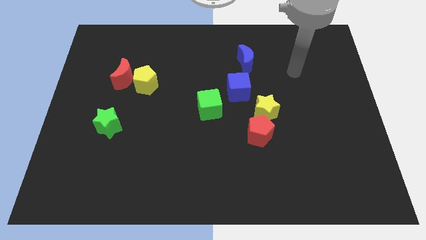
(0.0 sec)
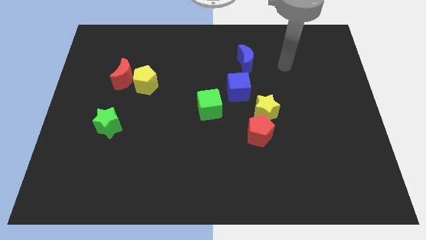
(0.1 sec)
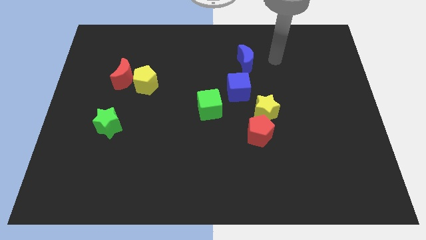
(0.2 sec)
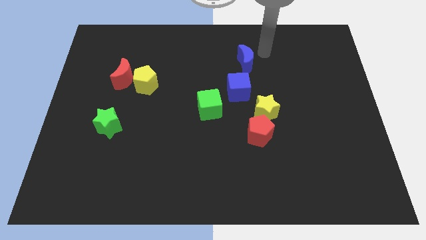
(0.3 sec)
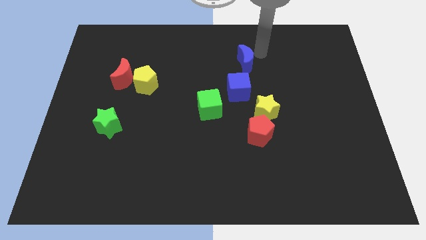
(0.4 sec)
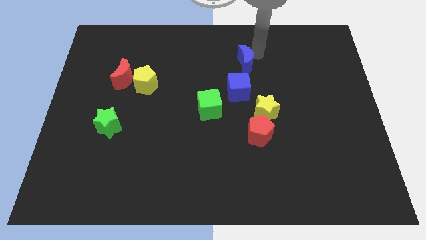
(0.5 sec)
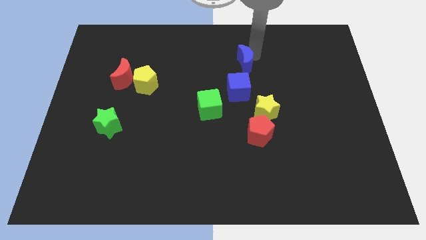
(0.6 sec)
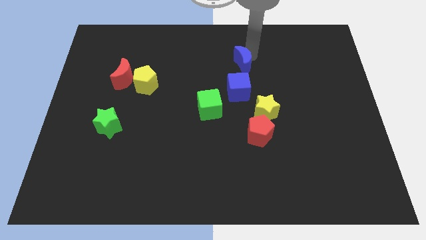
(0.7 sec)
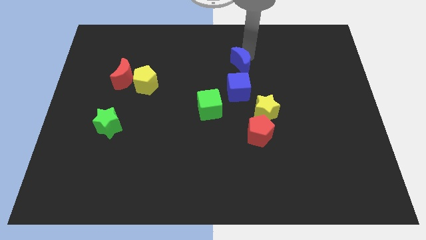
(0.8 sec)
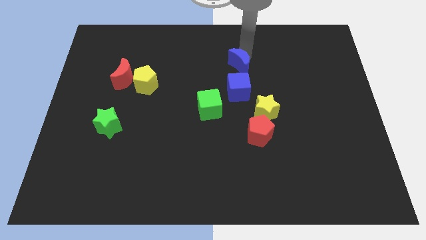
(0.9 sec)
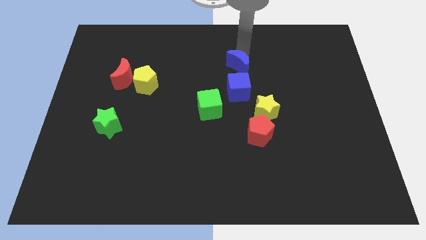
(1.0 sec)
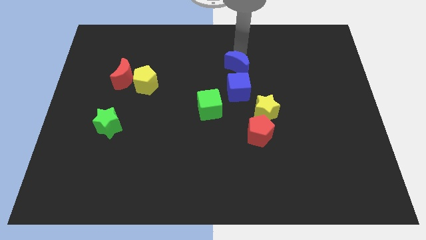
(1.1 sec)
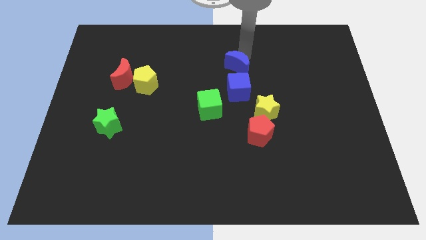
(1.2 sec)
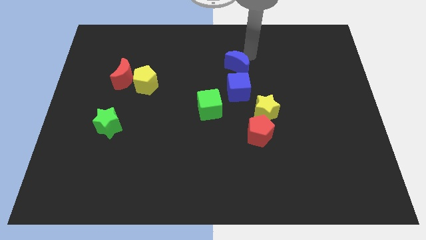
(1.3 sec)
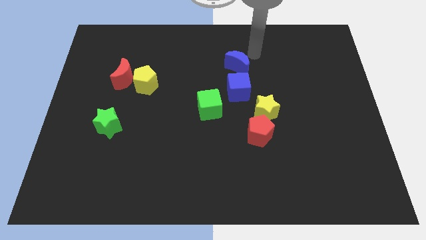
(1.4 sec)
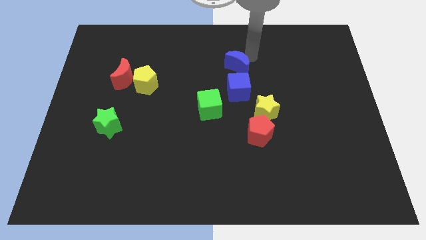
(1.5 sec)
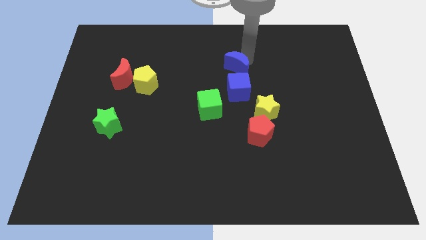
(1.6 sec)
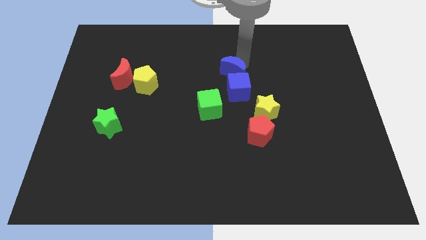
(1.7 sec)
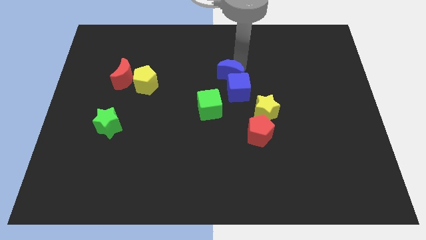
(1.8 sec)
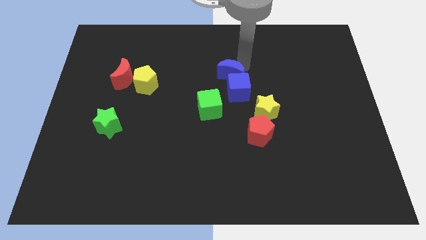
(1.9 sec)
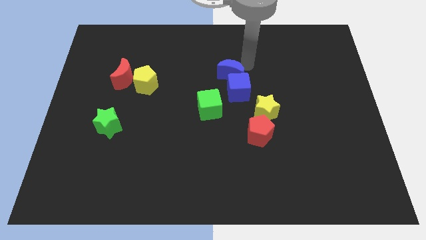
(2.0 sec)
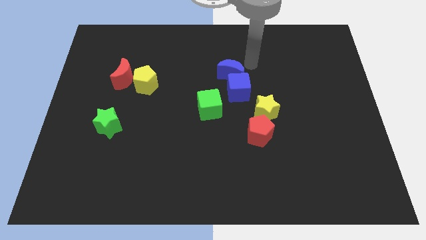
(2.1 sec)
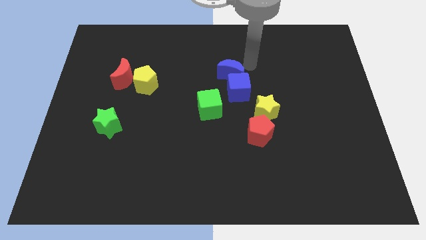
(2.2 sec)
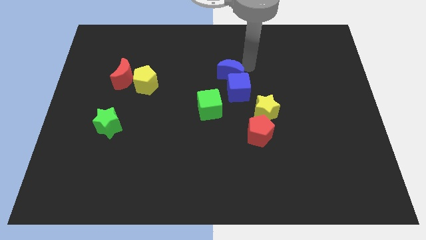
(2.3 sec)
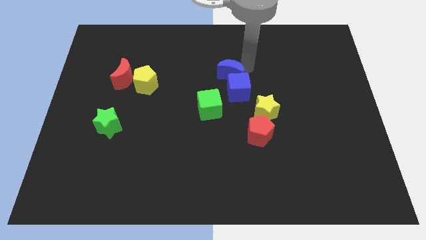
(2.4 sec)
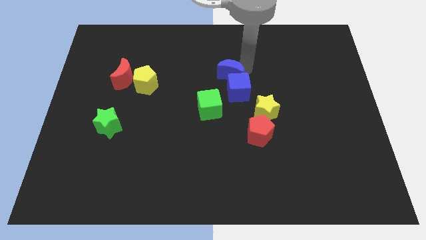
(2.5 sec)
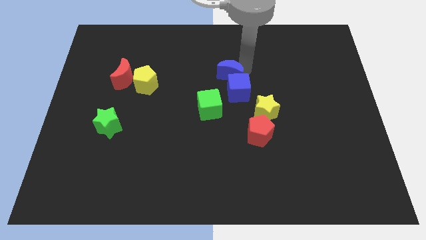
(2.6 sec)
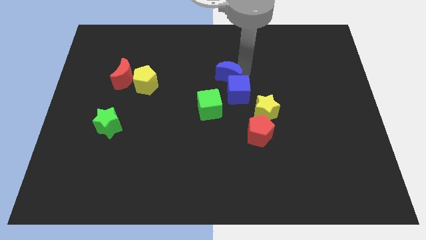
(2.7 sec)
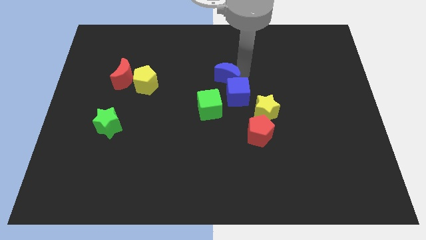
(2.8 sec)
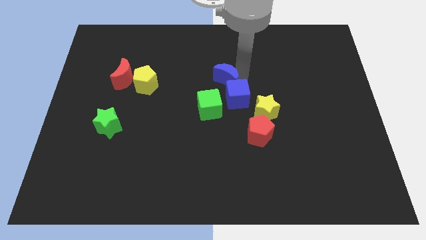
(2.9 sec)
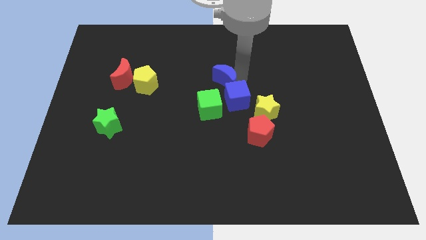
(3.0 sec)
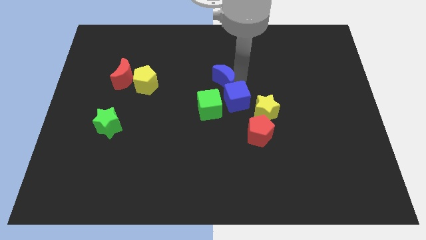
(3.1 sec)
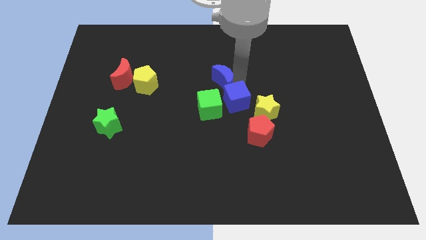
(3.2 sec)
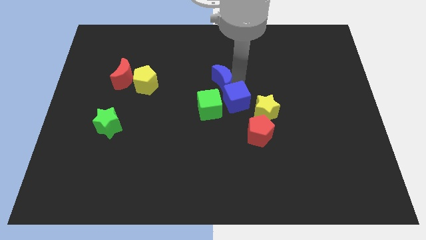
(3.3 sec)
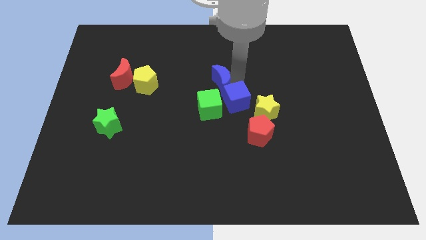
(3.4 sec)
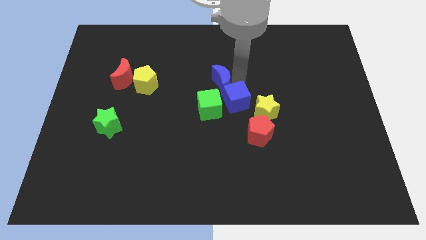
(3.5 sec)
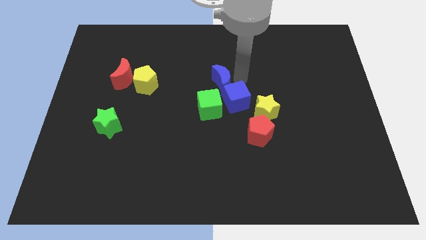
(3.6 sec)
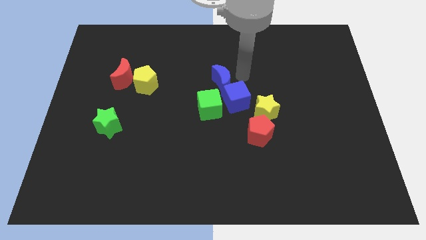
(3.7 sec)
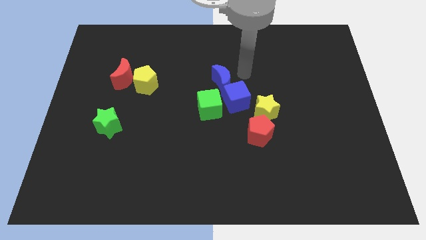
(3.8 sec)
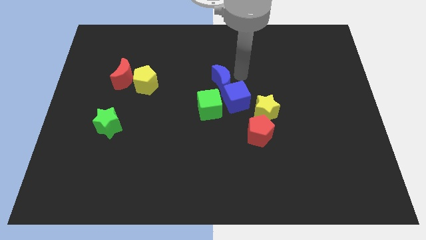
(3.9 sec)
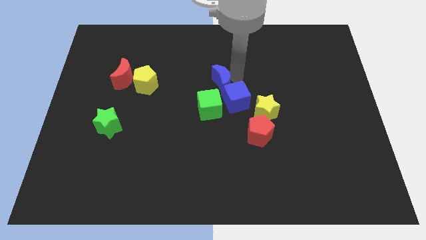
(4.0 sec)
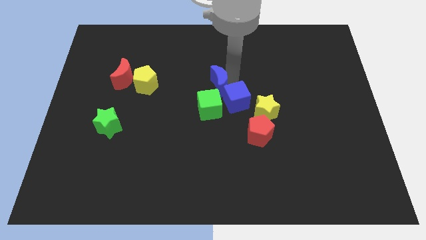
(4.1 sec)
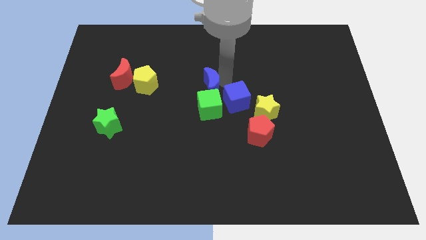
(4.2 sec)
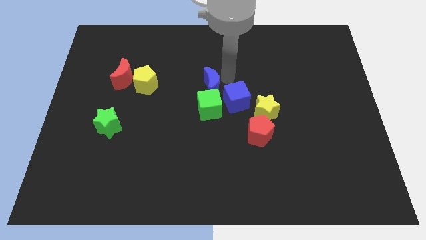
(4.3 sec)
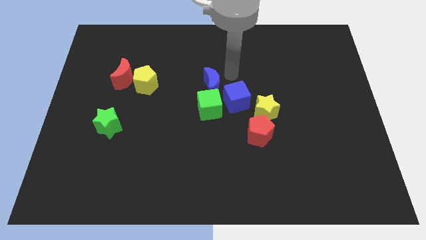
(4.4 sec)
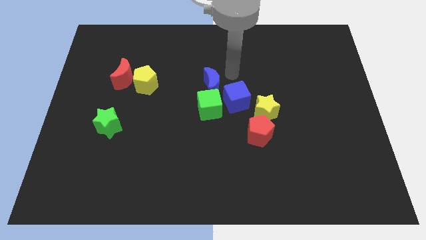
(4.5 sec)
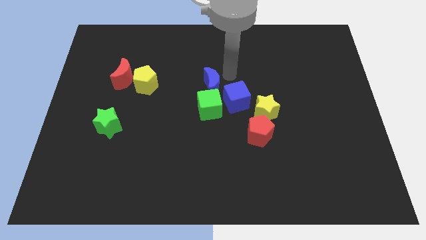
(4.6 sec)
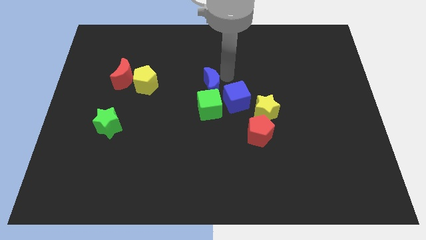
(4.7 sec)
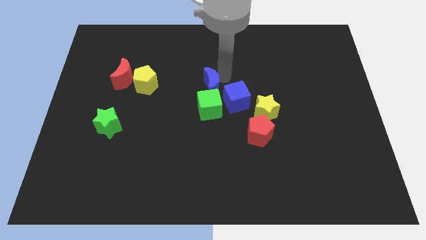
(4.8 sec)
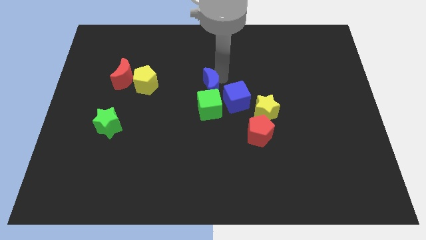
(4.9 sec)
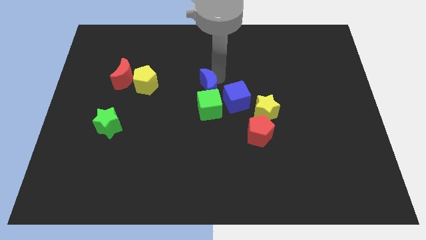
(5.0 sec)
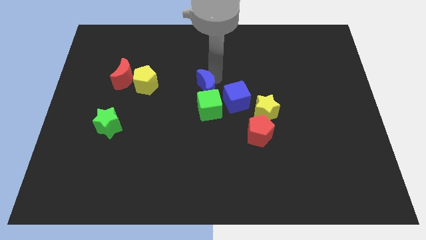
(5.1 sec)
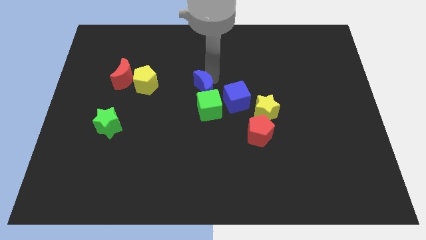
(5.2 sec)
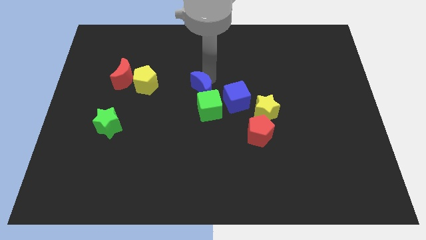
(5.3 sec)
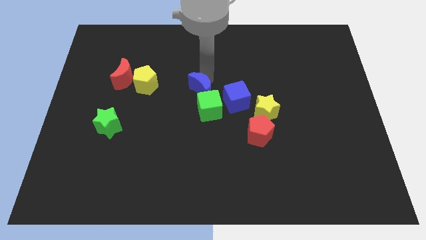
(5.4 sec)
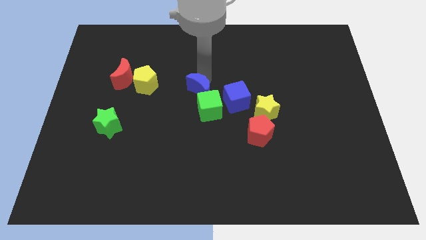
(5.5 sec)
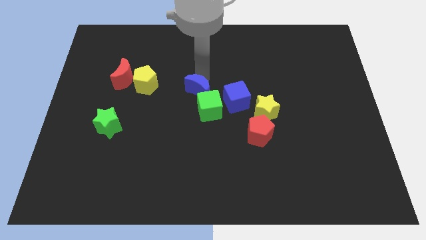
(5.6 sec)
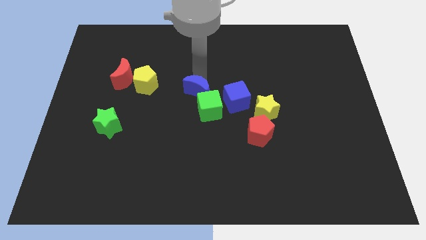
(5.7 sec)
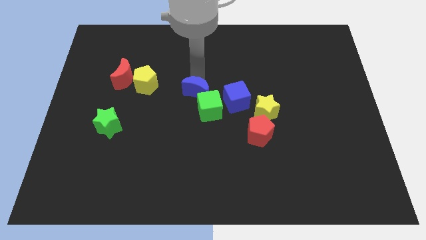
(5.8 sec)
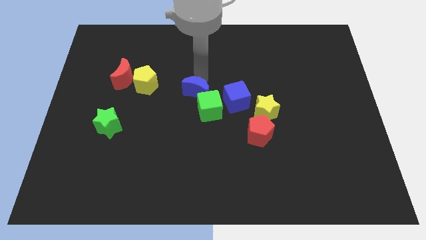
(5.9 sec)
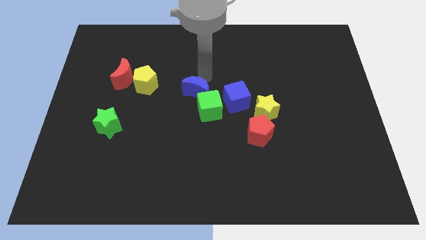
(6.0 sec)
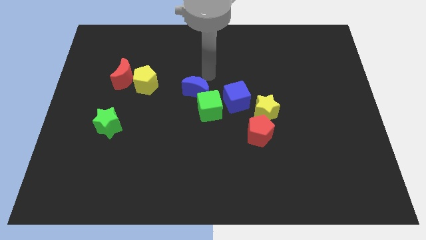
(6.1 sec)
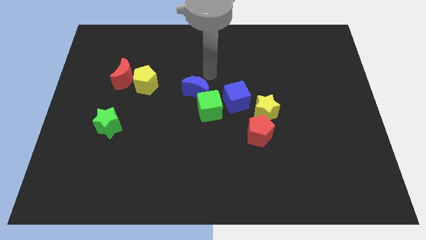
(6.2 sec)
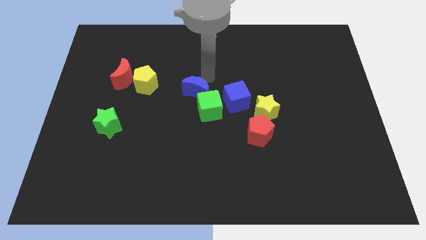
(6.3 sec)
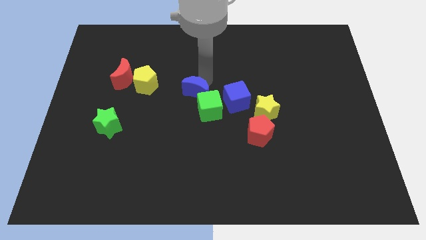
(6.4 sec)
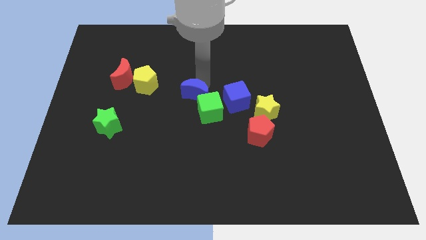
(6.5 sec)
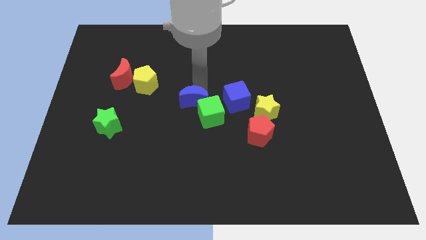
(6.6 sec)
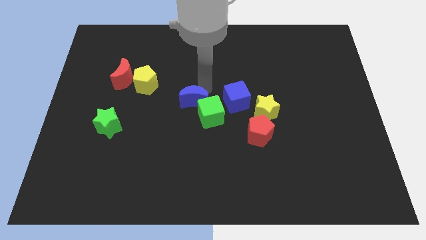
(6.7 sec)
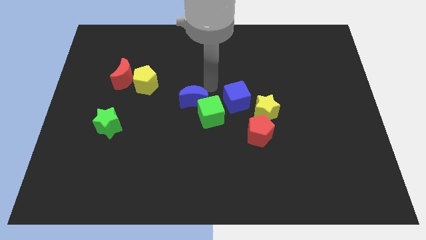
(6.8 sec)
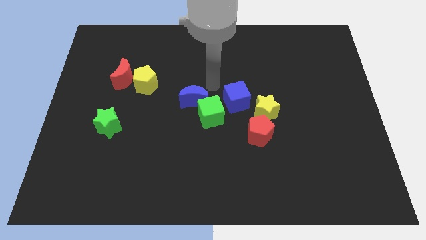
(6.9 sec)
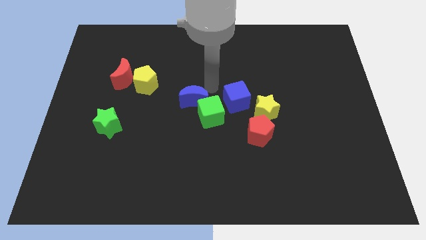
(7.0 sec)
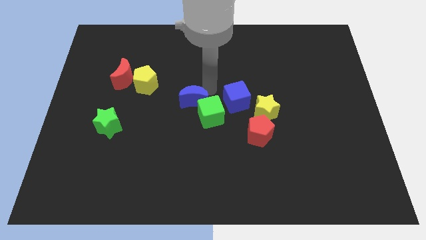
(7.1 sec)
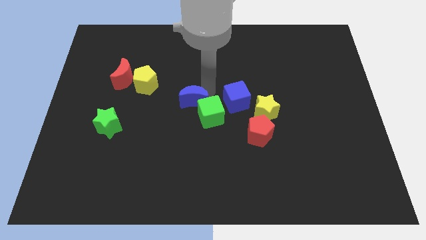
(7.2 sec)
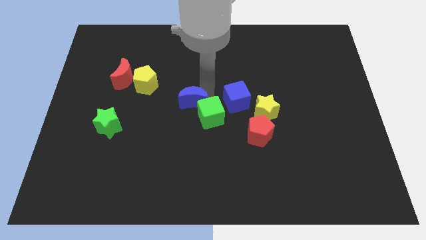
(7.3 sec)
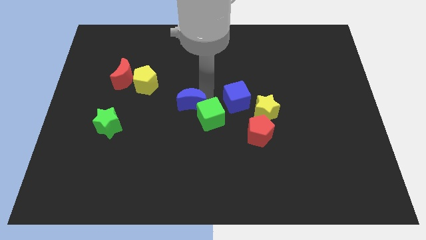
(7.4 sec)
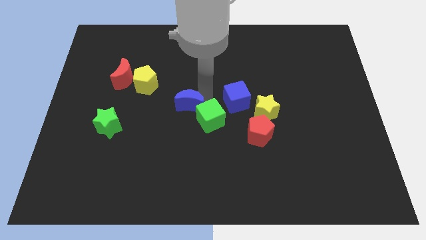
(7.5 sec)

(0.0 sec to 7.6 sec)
push the blue moon downwards and then to the left

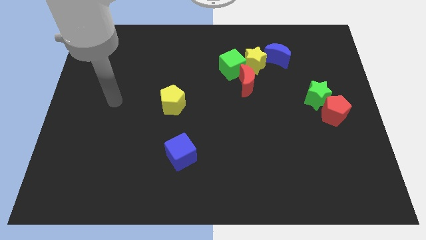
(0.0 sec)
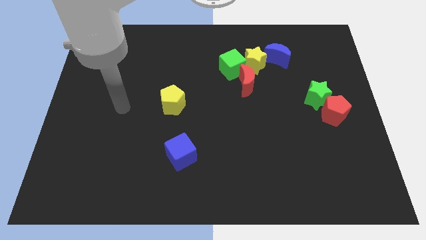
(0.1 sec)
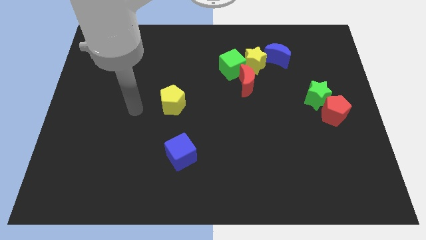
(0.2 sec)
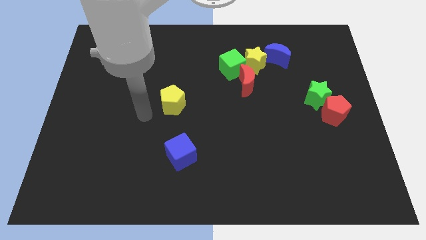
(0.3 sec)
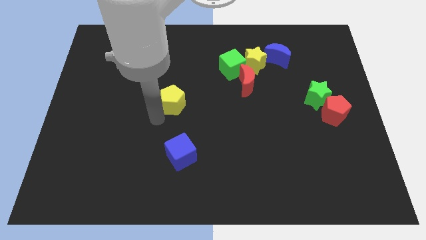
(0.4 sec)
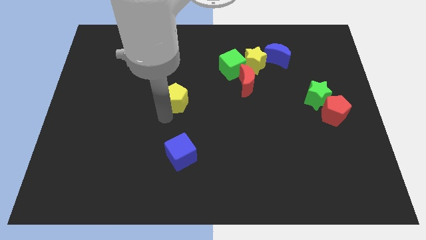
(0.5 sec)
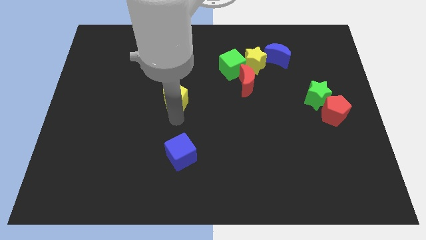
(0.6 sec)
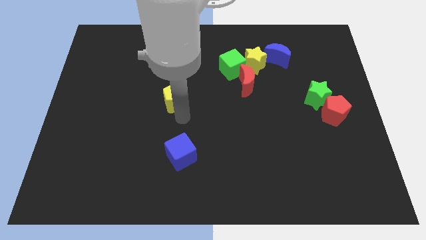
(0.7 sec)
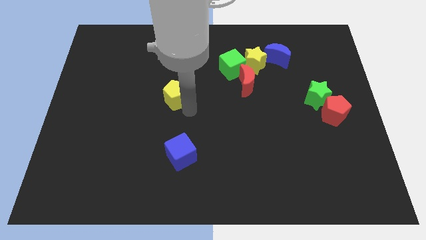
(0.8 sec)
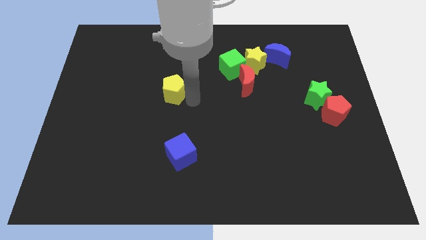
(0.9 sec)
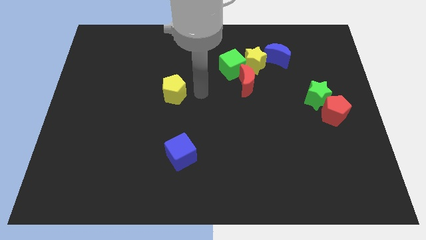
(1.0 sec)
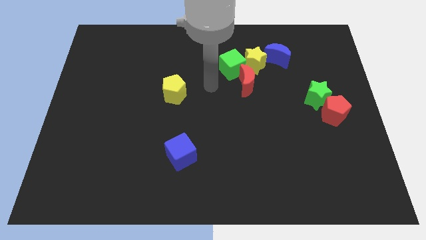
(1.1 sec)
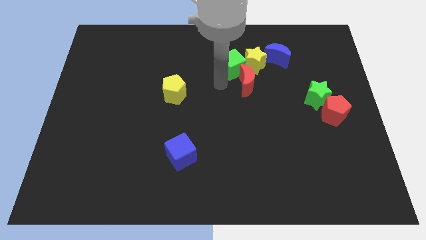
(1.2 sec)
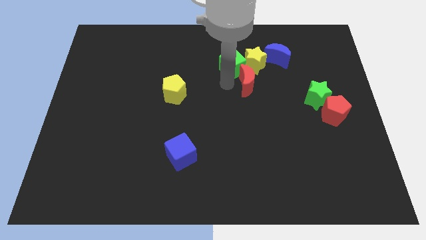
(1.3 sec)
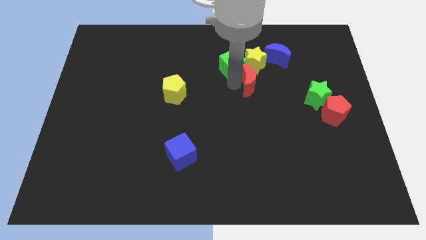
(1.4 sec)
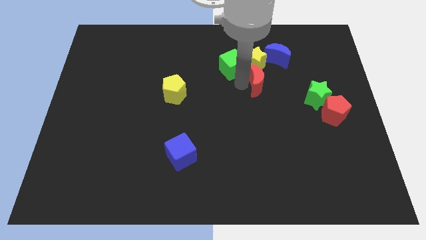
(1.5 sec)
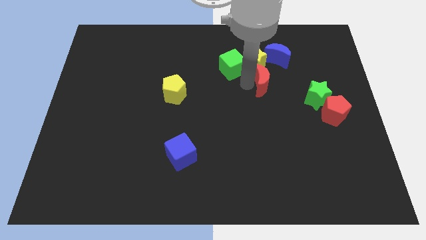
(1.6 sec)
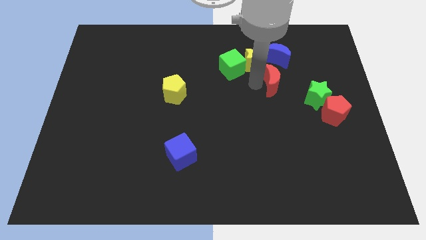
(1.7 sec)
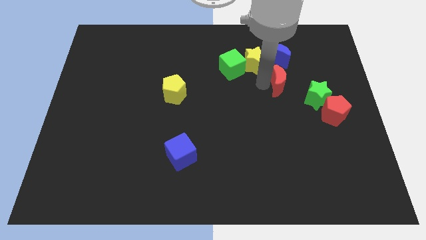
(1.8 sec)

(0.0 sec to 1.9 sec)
slightly slide the red moon to the right
